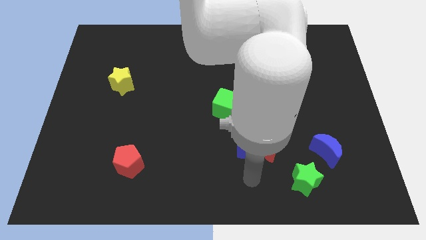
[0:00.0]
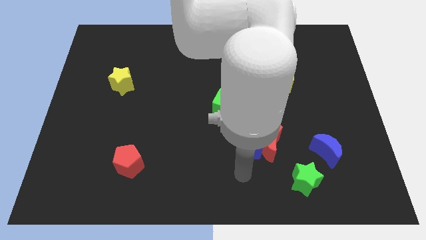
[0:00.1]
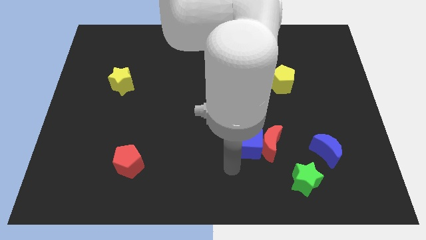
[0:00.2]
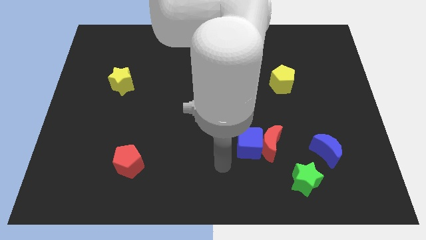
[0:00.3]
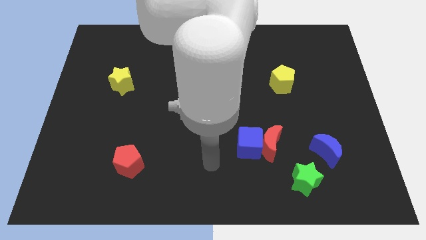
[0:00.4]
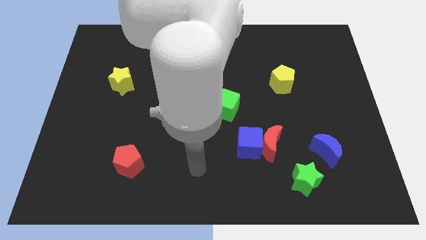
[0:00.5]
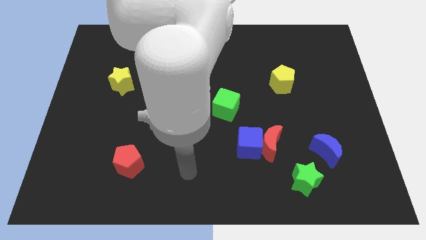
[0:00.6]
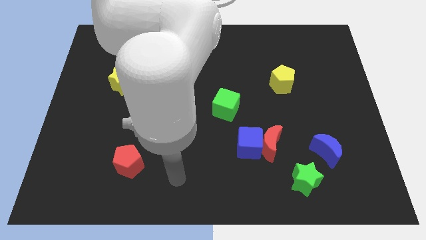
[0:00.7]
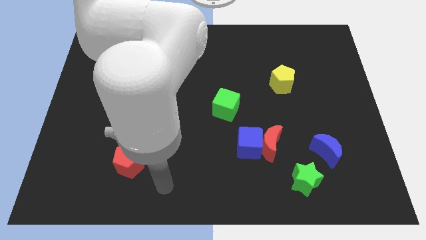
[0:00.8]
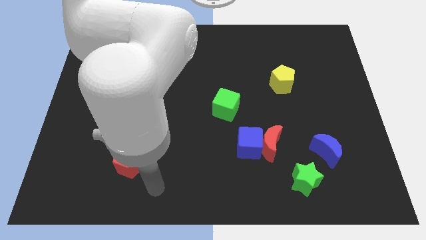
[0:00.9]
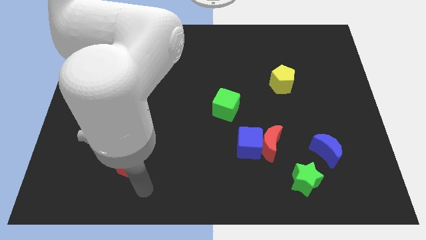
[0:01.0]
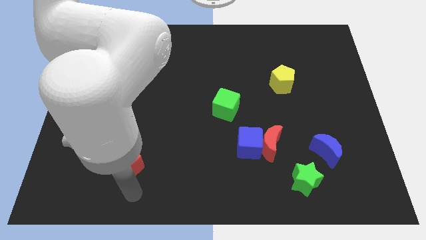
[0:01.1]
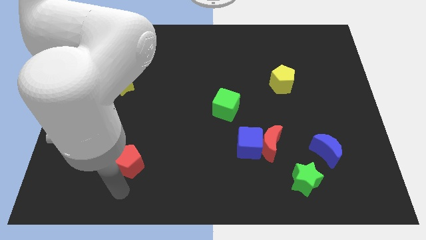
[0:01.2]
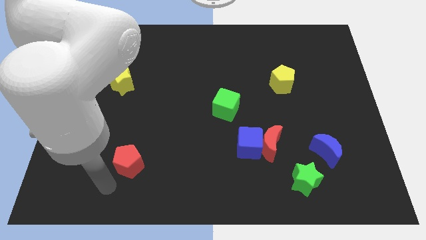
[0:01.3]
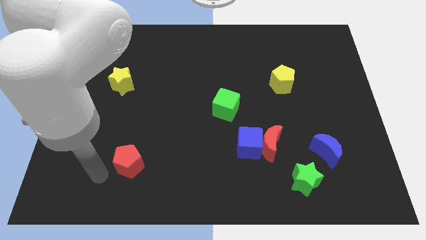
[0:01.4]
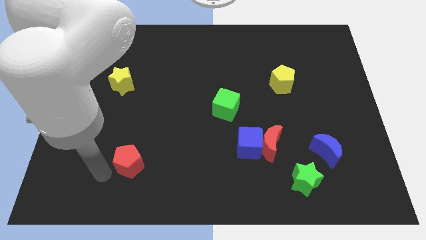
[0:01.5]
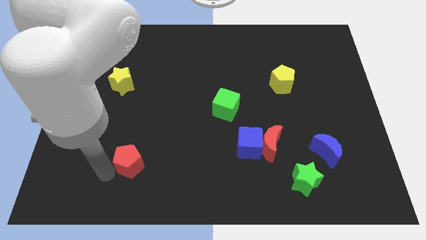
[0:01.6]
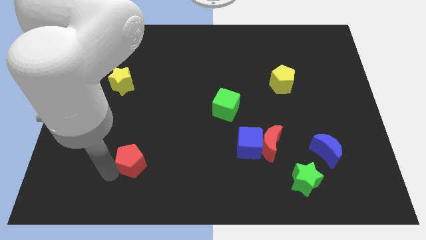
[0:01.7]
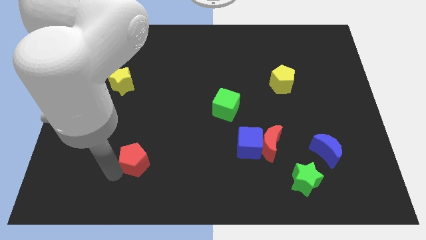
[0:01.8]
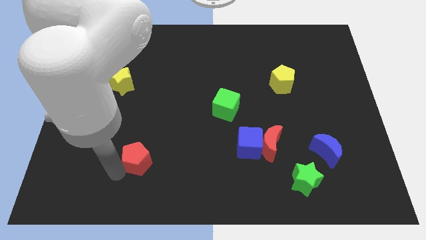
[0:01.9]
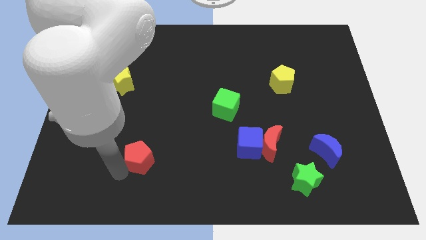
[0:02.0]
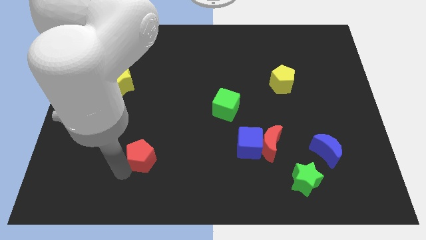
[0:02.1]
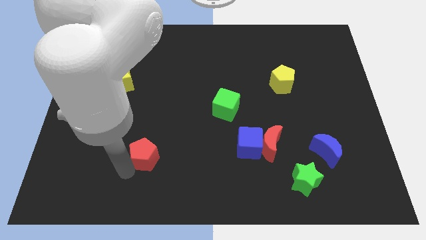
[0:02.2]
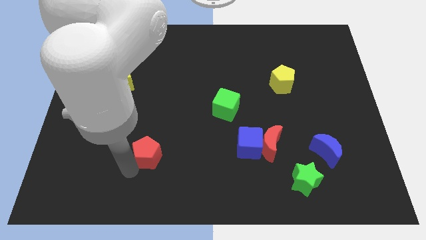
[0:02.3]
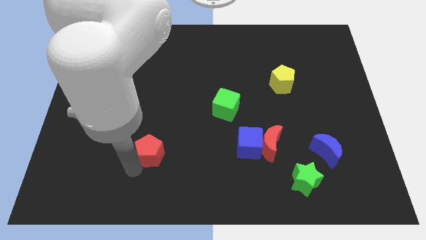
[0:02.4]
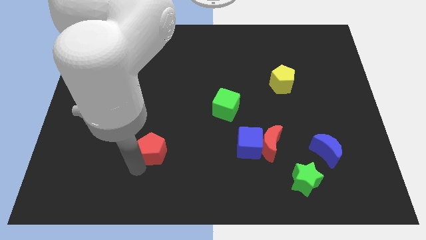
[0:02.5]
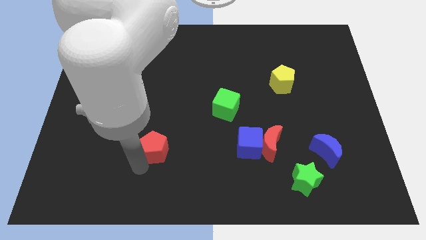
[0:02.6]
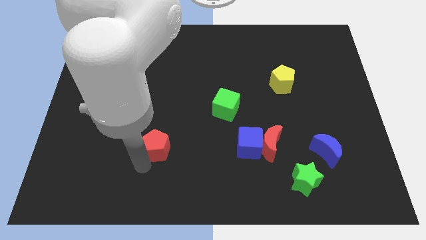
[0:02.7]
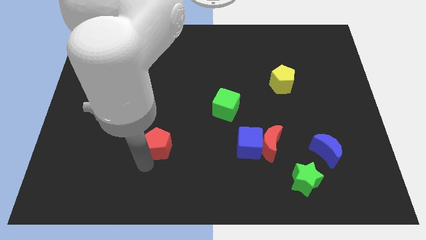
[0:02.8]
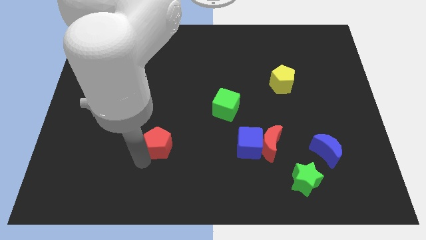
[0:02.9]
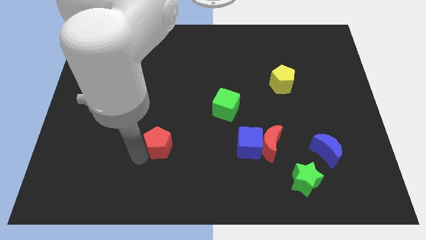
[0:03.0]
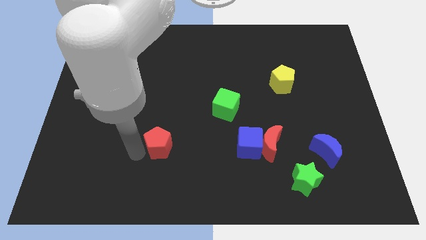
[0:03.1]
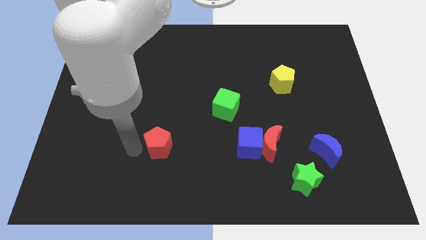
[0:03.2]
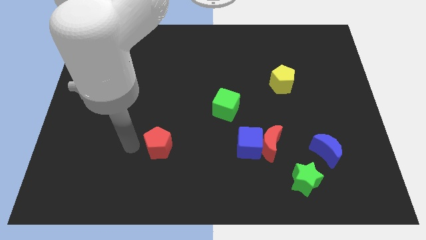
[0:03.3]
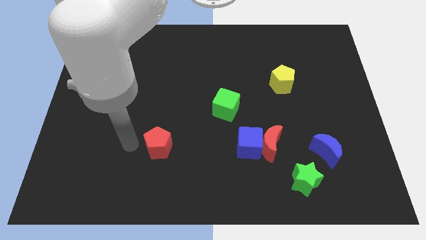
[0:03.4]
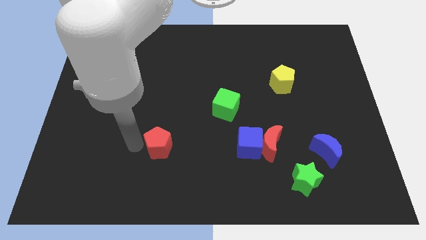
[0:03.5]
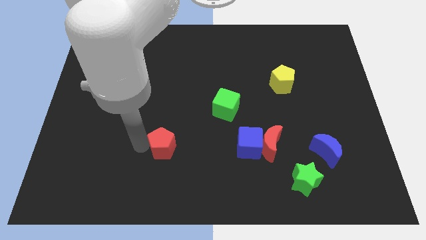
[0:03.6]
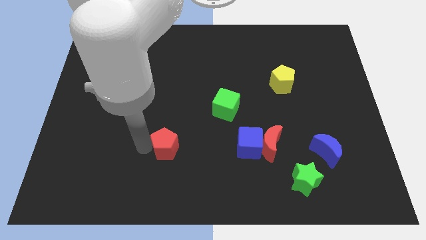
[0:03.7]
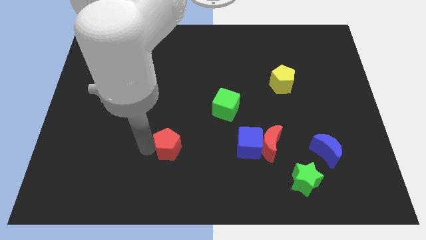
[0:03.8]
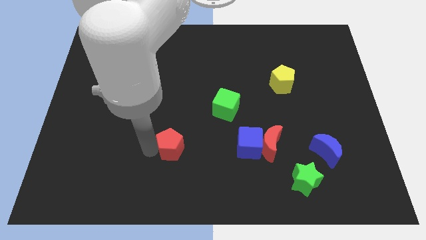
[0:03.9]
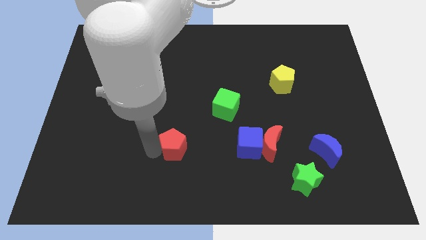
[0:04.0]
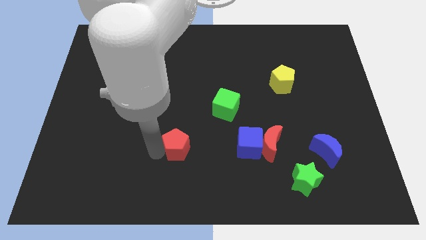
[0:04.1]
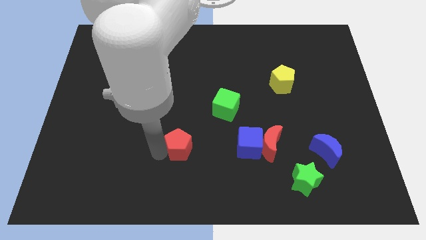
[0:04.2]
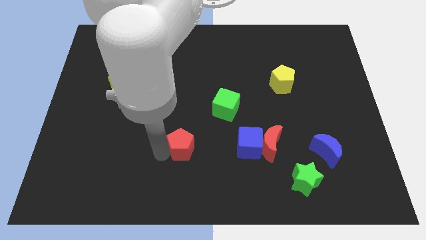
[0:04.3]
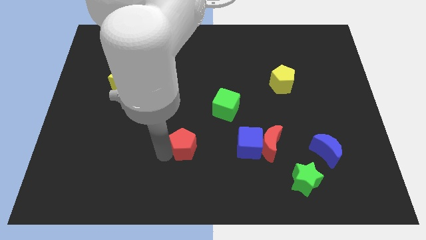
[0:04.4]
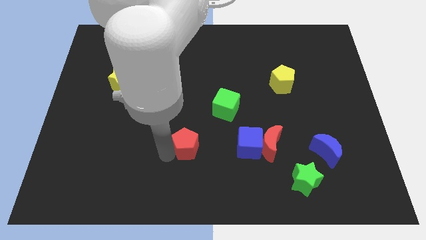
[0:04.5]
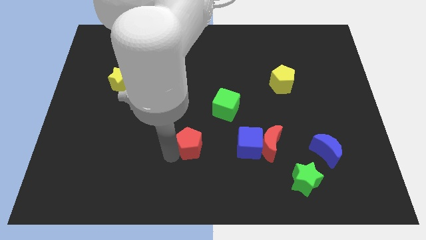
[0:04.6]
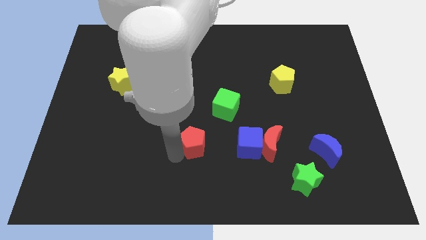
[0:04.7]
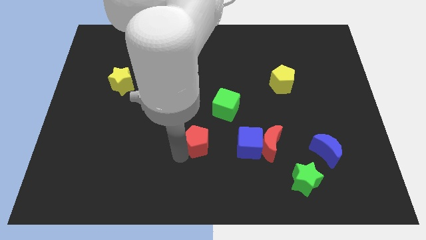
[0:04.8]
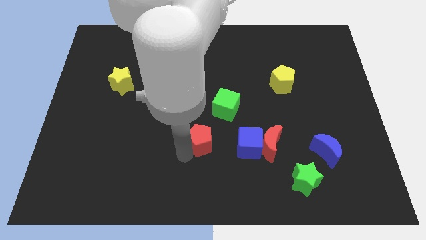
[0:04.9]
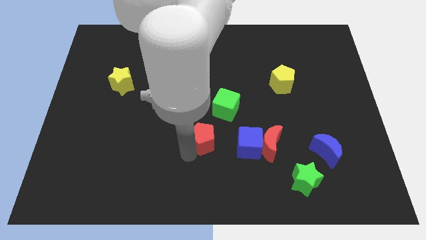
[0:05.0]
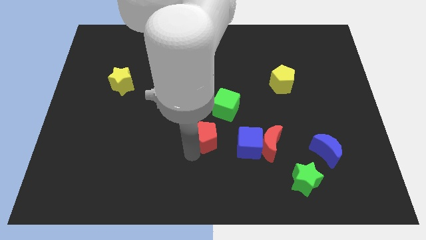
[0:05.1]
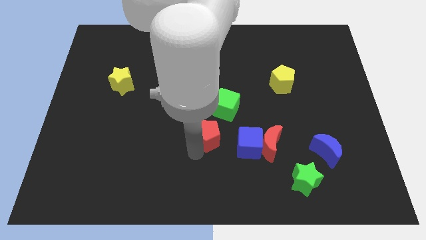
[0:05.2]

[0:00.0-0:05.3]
push the red pentagon to the top left side of the blue cube

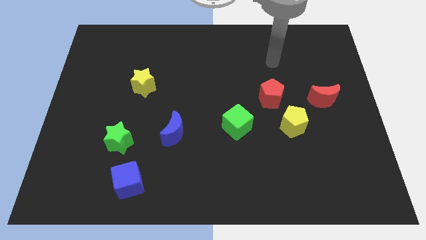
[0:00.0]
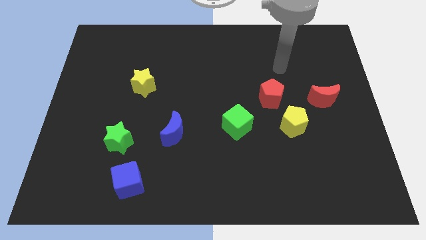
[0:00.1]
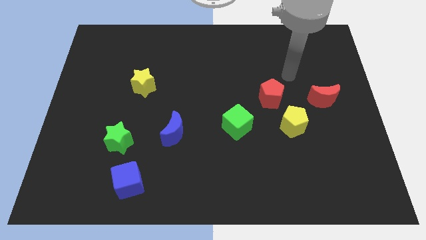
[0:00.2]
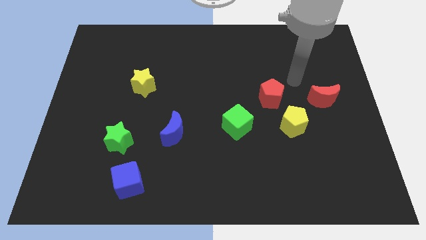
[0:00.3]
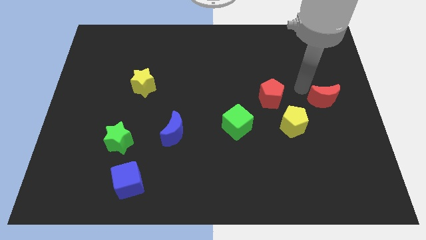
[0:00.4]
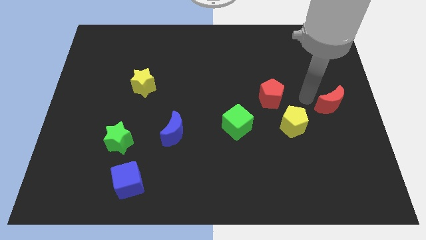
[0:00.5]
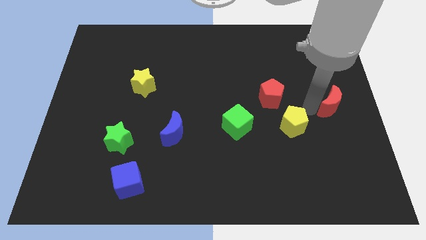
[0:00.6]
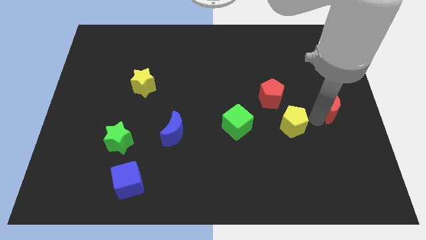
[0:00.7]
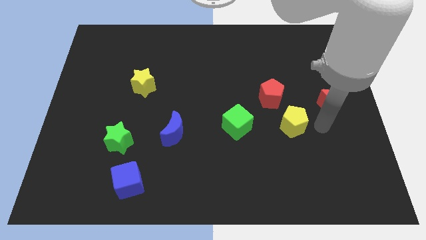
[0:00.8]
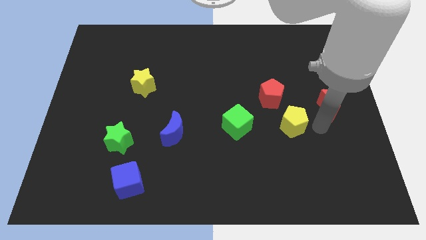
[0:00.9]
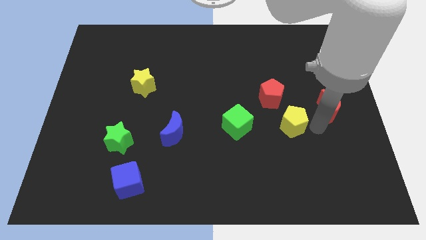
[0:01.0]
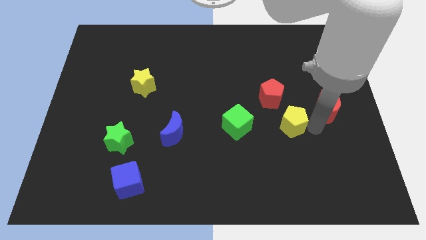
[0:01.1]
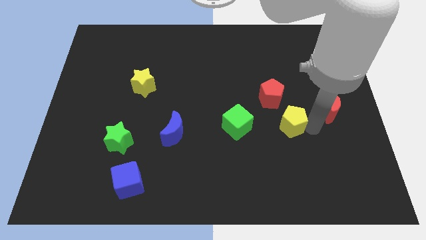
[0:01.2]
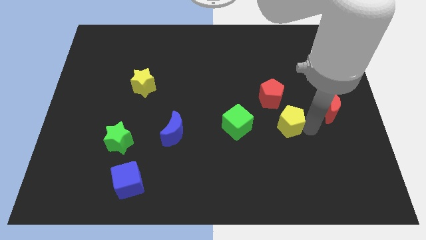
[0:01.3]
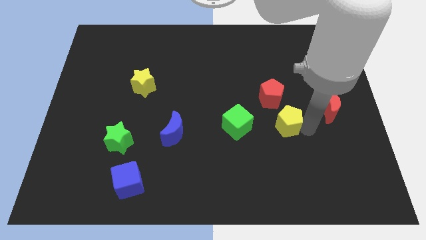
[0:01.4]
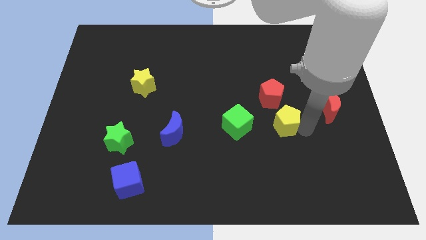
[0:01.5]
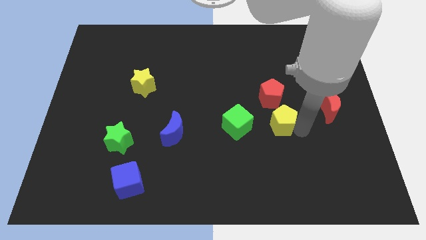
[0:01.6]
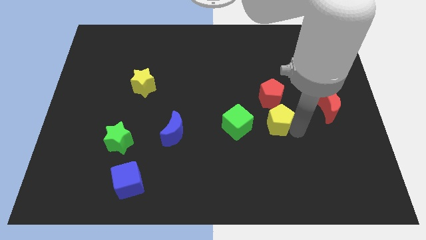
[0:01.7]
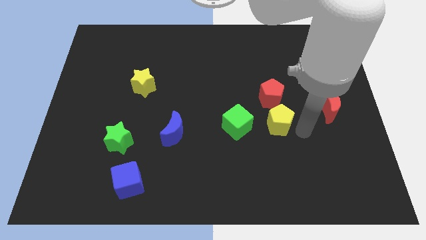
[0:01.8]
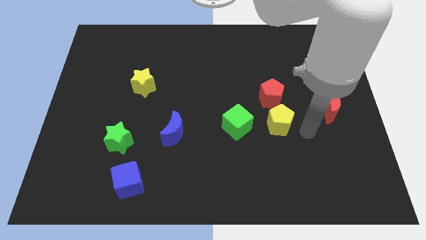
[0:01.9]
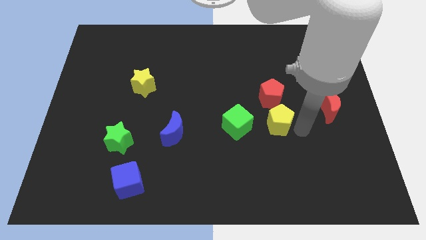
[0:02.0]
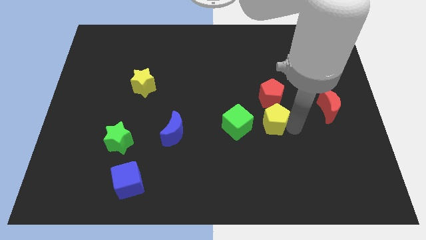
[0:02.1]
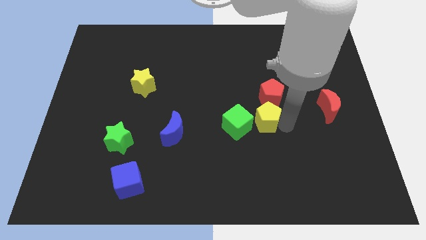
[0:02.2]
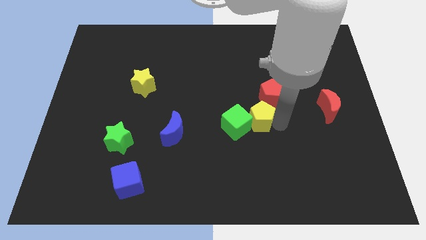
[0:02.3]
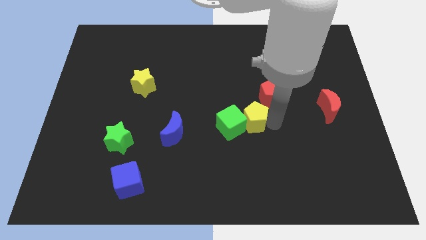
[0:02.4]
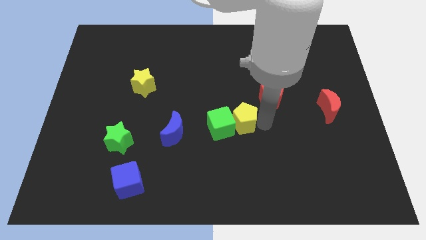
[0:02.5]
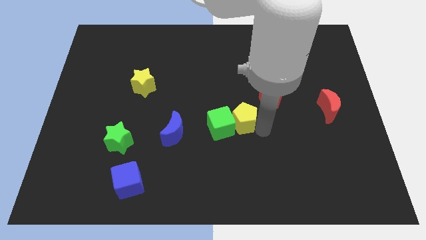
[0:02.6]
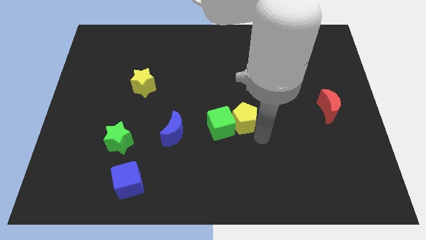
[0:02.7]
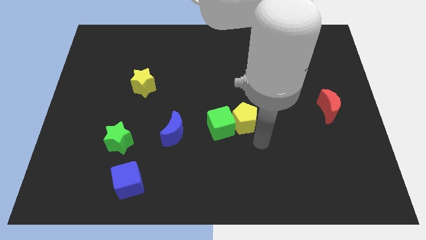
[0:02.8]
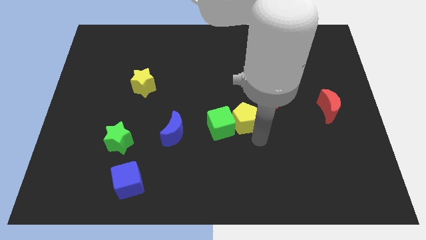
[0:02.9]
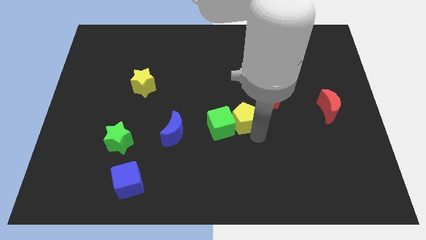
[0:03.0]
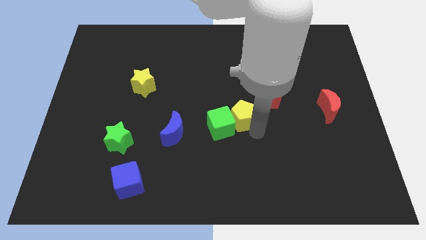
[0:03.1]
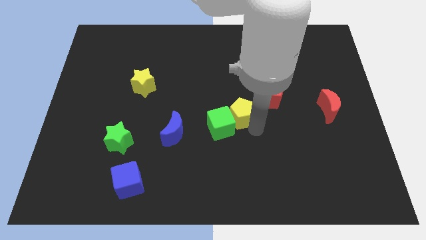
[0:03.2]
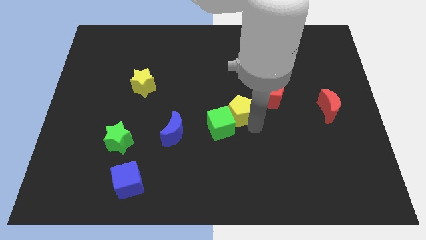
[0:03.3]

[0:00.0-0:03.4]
put the yellow pentagon left of the red pentagon
